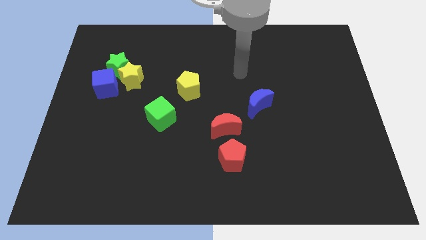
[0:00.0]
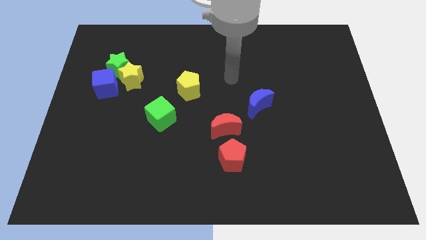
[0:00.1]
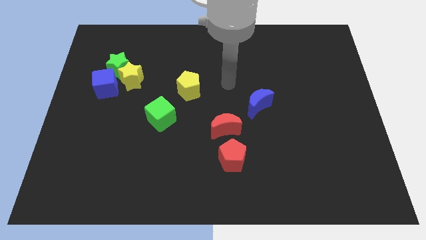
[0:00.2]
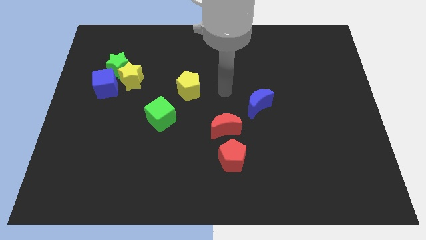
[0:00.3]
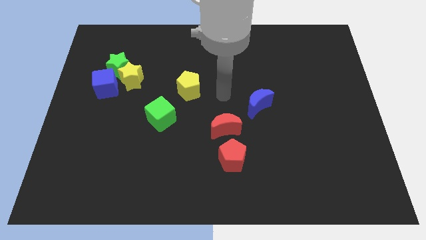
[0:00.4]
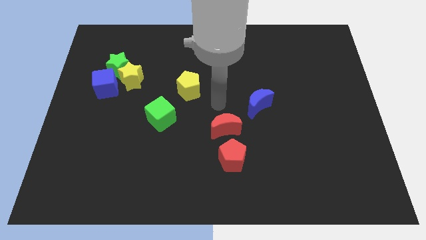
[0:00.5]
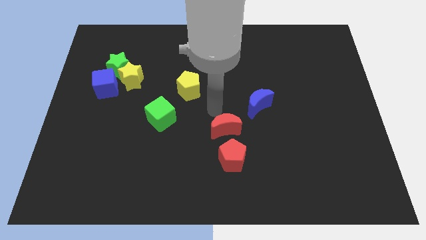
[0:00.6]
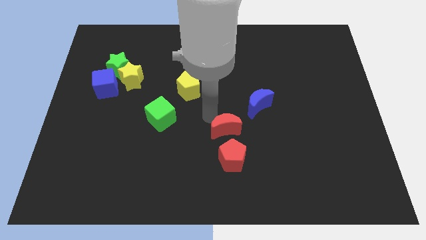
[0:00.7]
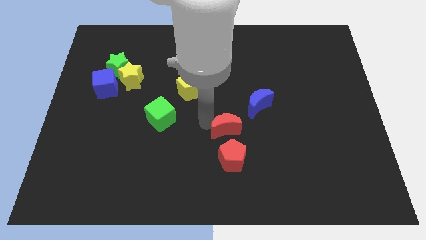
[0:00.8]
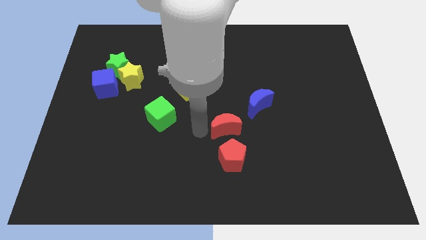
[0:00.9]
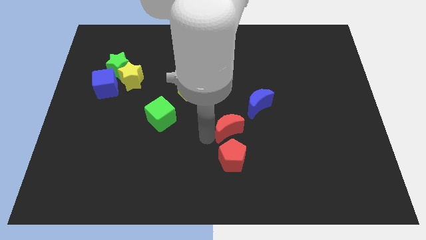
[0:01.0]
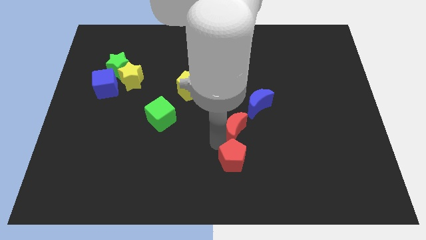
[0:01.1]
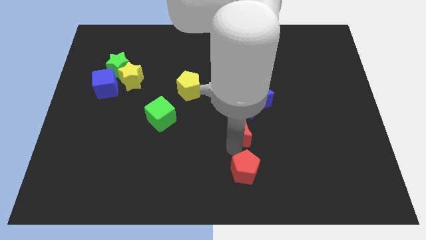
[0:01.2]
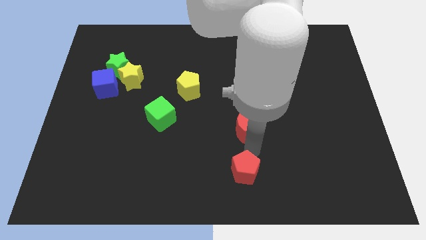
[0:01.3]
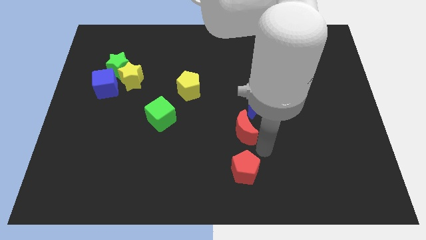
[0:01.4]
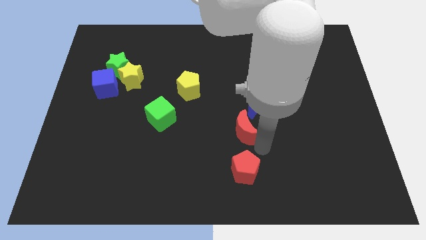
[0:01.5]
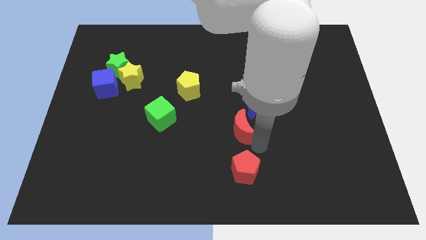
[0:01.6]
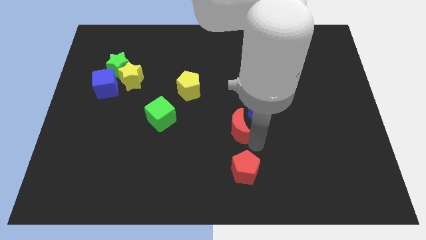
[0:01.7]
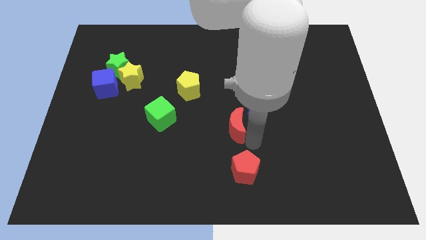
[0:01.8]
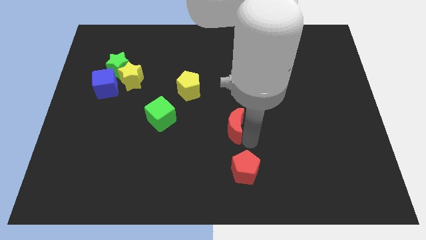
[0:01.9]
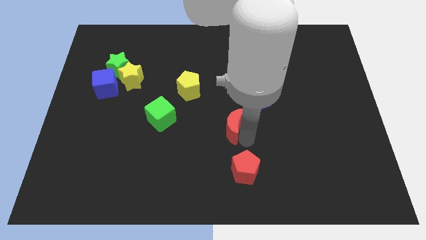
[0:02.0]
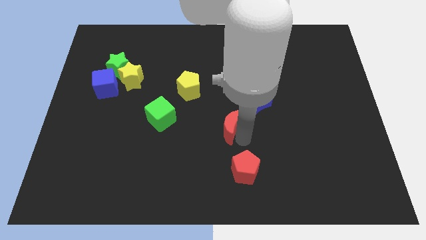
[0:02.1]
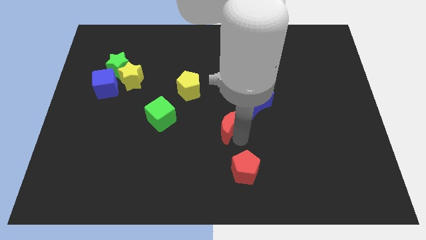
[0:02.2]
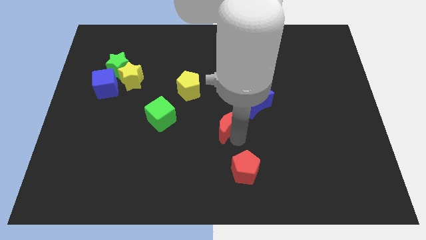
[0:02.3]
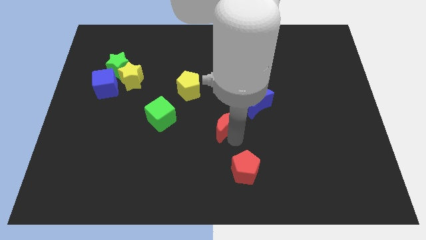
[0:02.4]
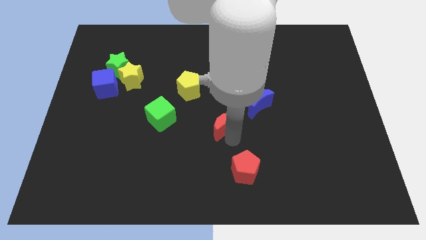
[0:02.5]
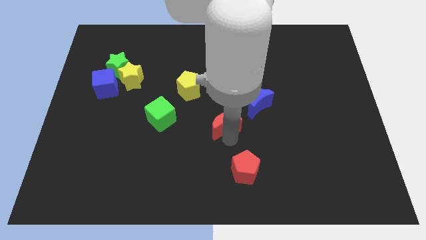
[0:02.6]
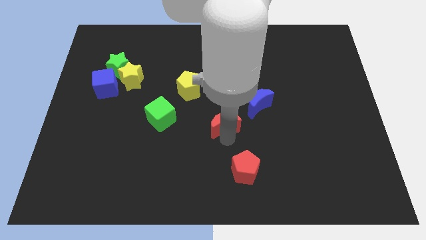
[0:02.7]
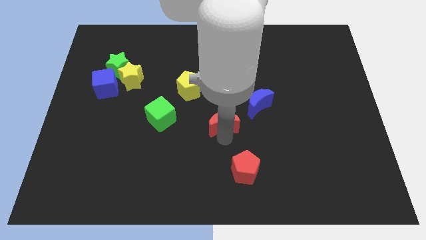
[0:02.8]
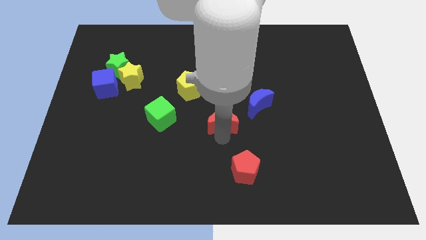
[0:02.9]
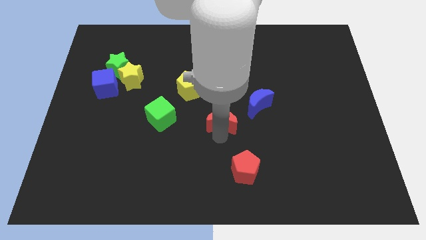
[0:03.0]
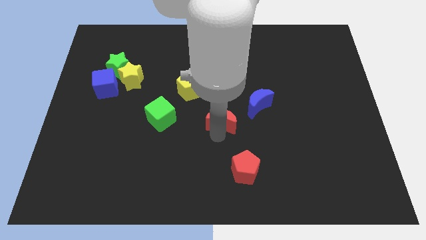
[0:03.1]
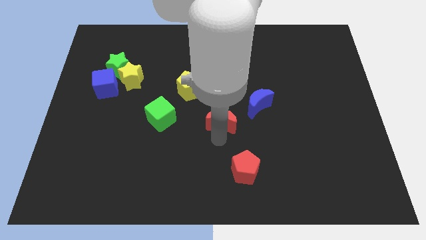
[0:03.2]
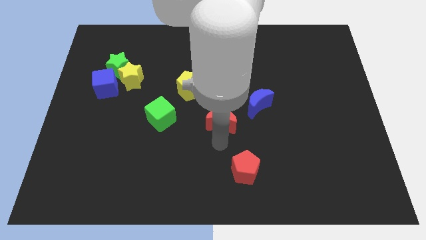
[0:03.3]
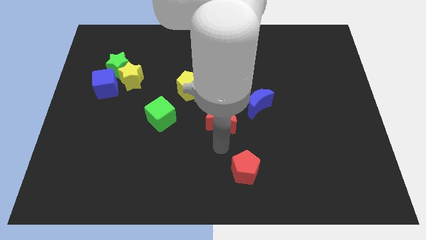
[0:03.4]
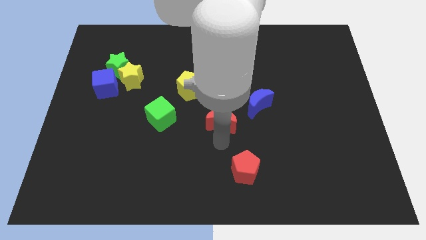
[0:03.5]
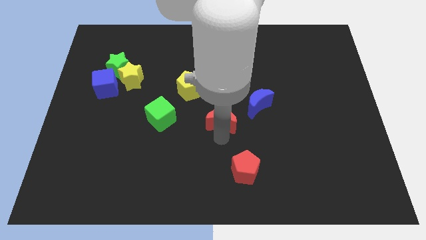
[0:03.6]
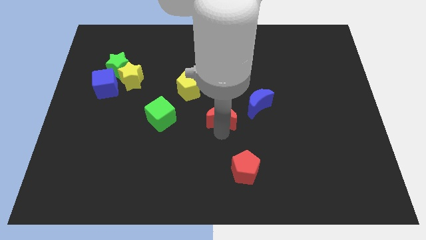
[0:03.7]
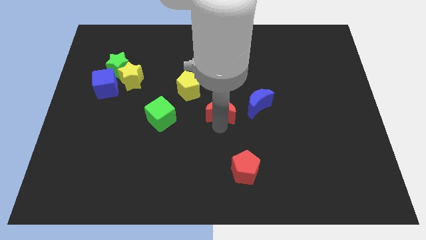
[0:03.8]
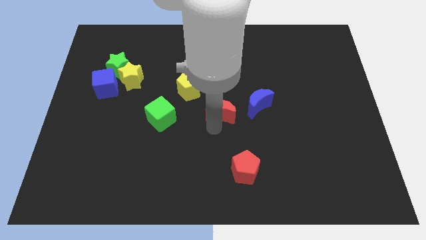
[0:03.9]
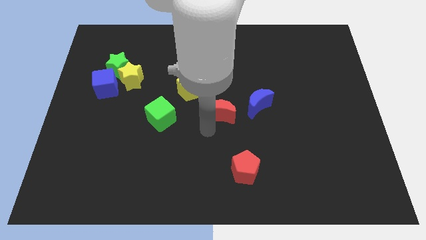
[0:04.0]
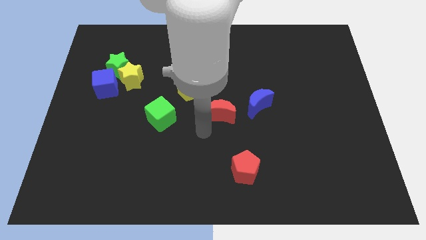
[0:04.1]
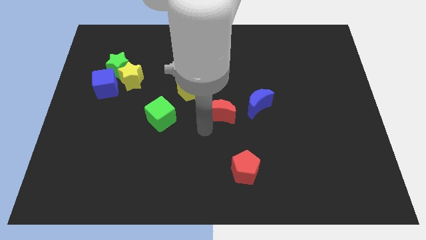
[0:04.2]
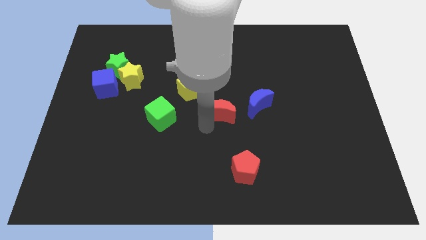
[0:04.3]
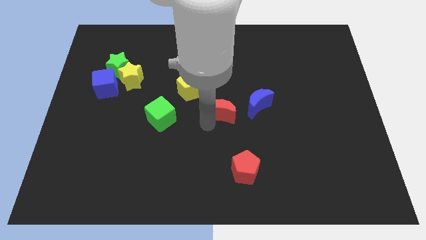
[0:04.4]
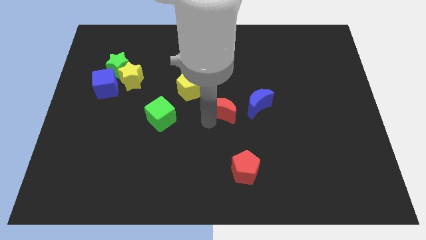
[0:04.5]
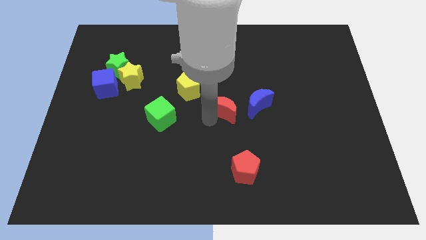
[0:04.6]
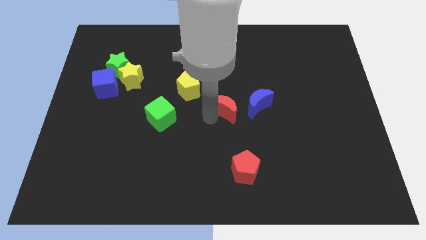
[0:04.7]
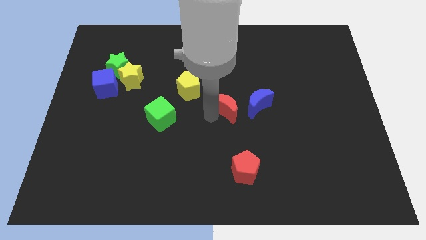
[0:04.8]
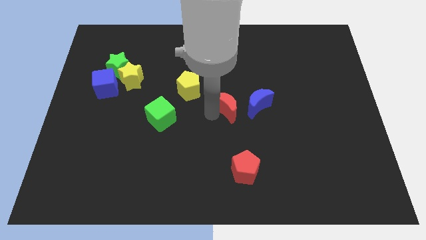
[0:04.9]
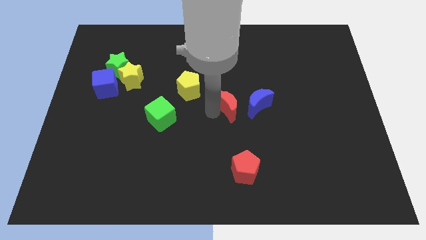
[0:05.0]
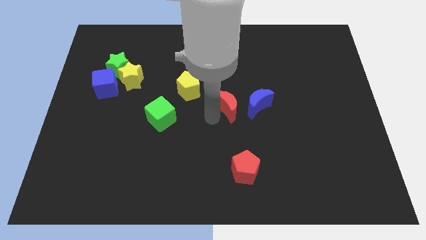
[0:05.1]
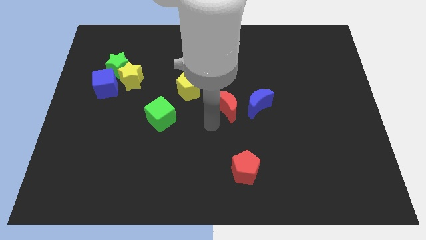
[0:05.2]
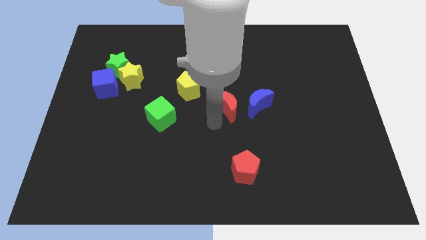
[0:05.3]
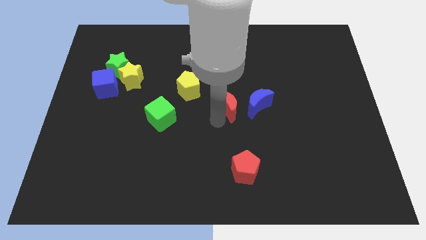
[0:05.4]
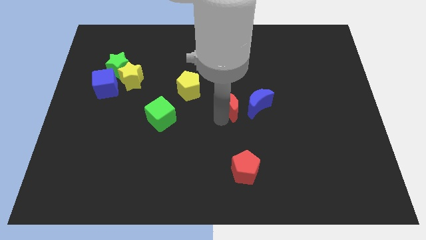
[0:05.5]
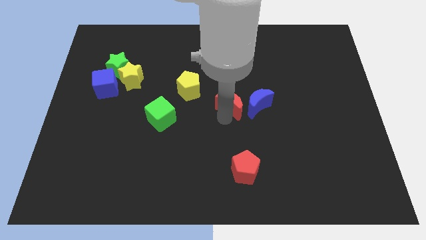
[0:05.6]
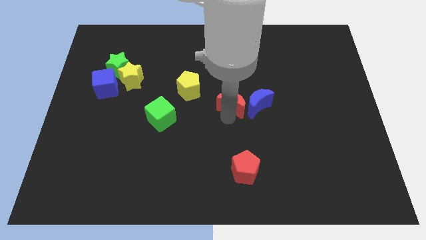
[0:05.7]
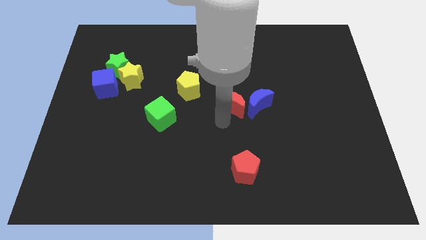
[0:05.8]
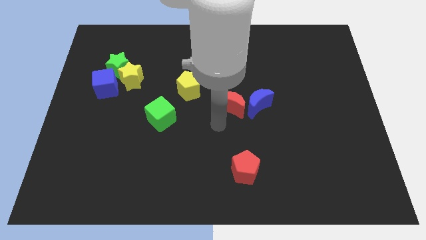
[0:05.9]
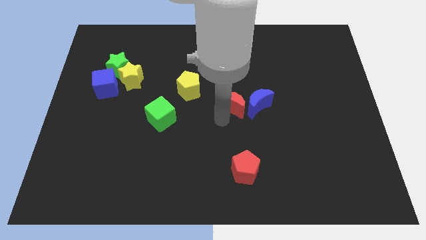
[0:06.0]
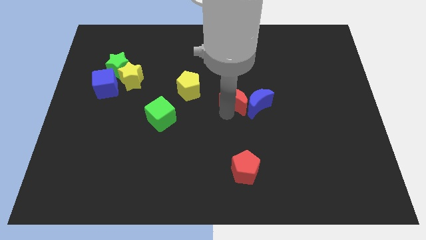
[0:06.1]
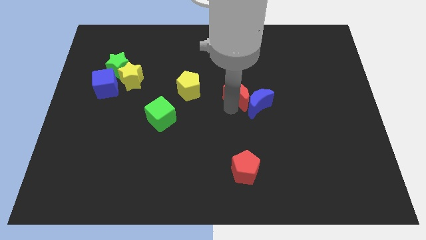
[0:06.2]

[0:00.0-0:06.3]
push the red moon upwards and to the right diagonally somewhat

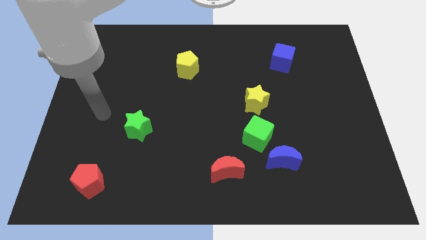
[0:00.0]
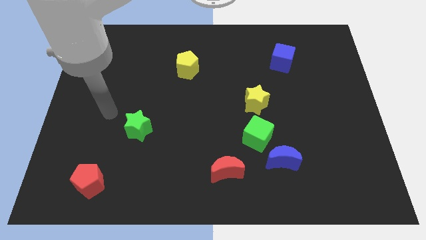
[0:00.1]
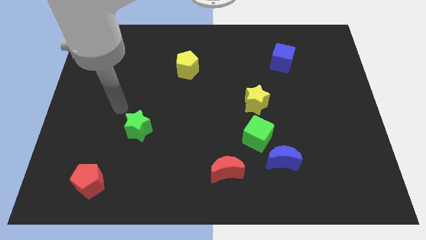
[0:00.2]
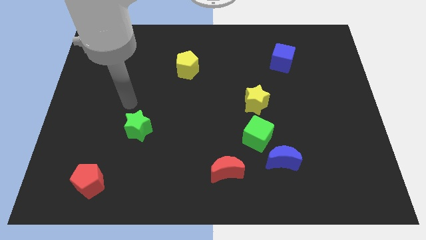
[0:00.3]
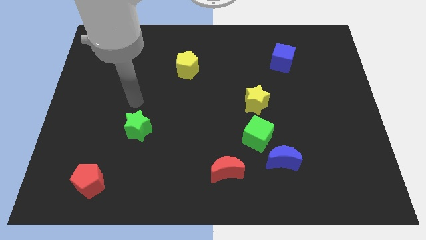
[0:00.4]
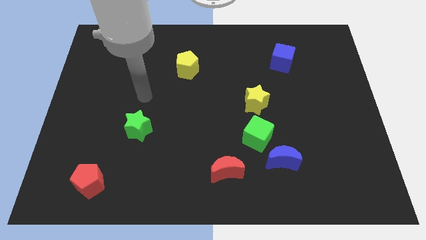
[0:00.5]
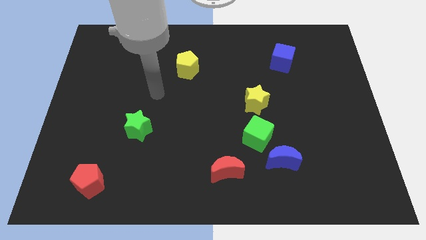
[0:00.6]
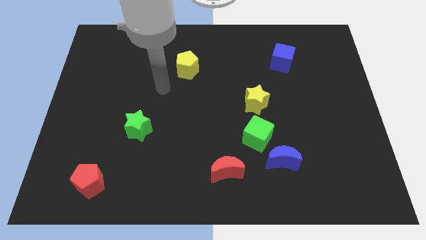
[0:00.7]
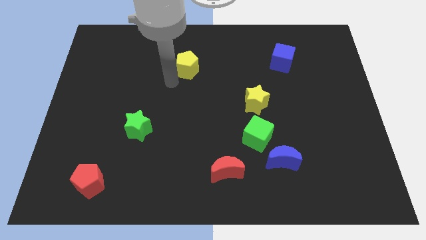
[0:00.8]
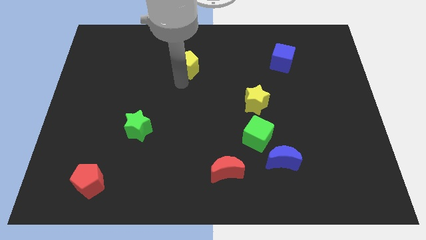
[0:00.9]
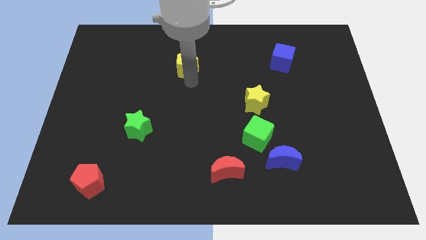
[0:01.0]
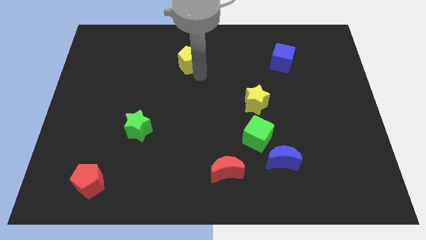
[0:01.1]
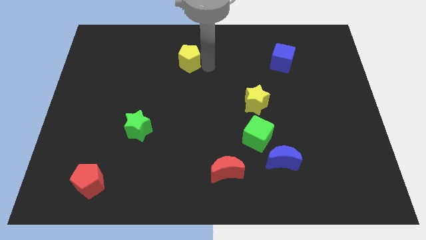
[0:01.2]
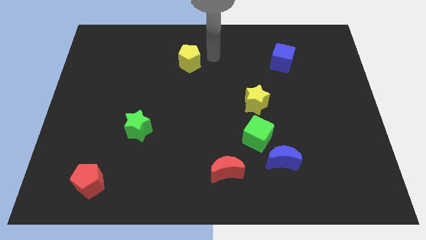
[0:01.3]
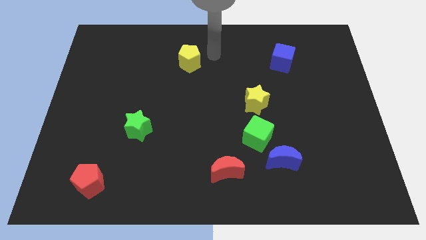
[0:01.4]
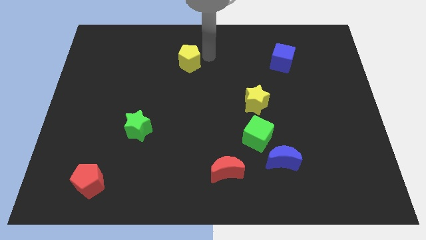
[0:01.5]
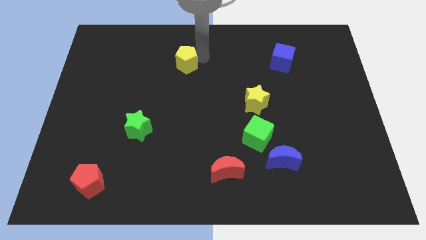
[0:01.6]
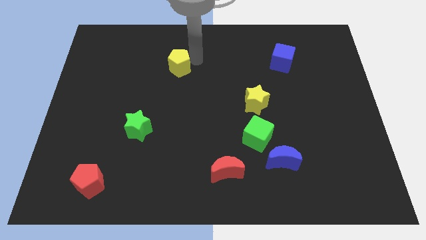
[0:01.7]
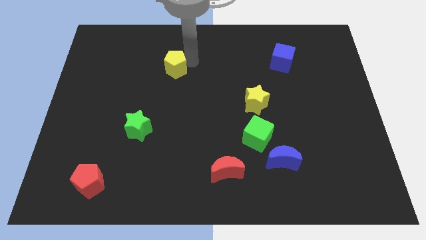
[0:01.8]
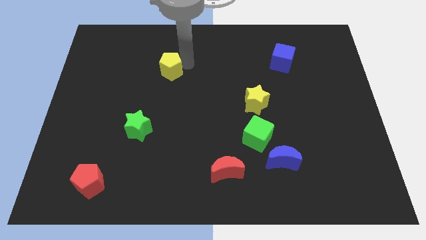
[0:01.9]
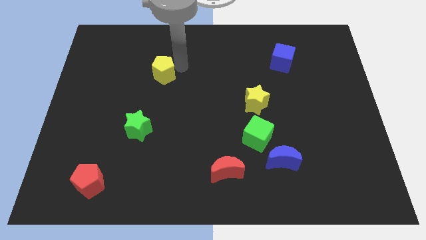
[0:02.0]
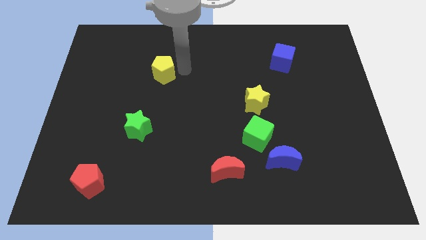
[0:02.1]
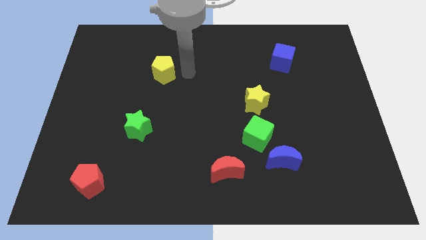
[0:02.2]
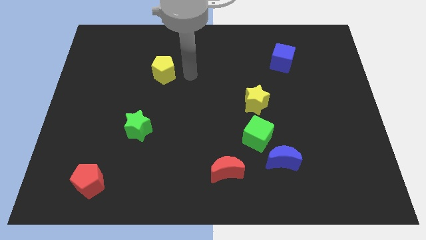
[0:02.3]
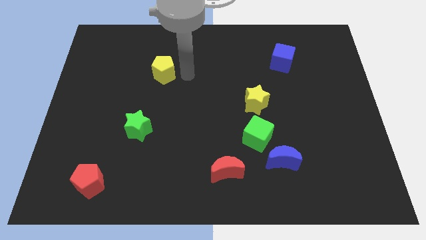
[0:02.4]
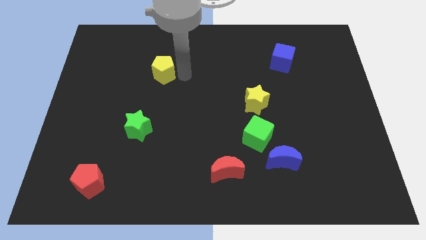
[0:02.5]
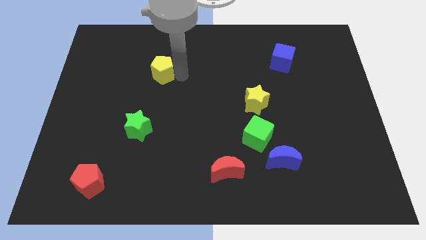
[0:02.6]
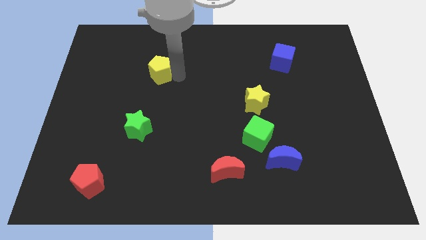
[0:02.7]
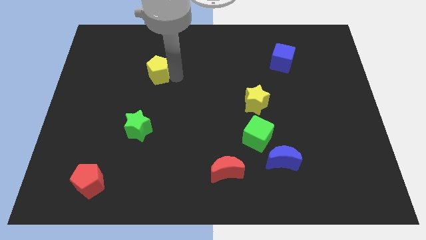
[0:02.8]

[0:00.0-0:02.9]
push the yellow pentagon to the left a little bit
